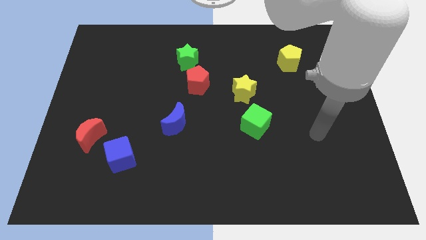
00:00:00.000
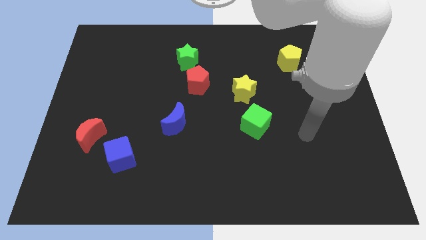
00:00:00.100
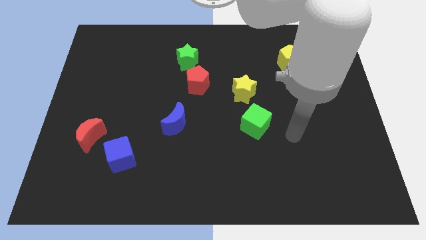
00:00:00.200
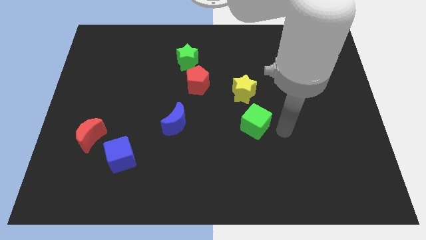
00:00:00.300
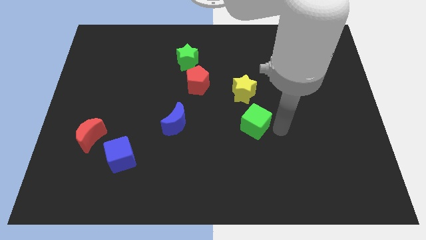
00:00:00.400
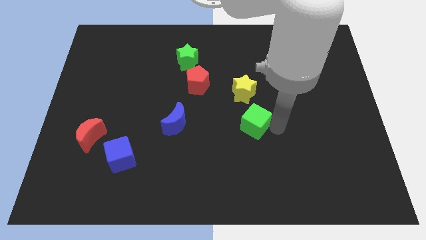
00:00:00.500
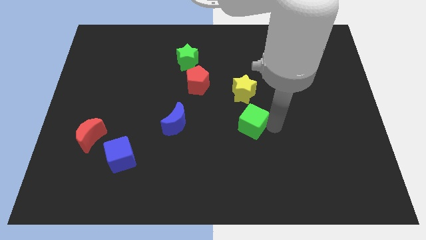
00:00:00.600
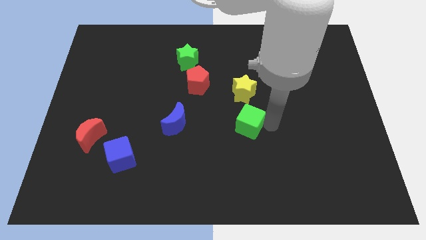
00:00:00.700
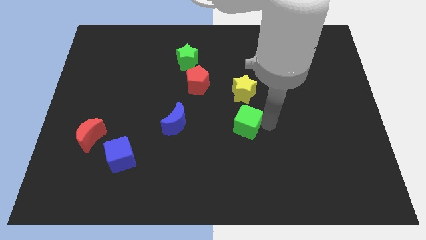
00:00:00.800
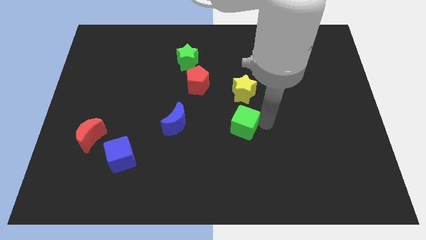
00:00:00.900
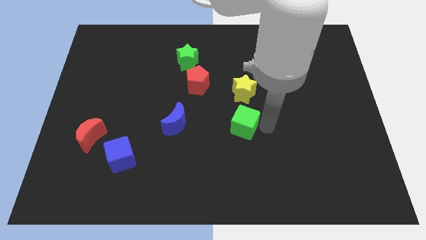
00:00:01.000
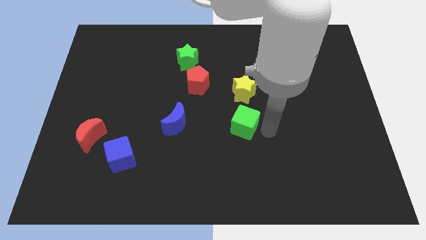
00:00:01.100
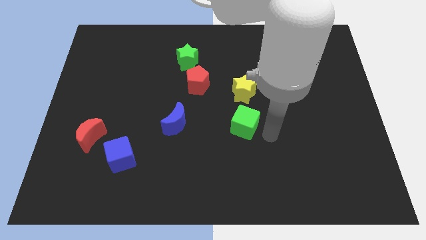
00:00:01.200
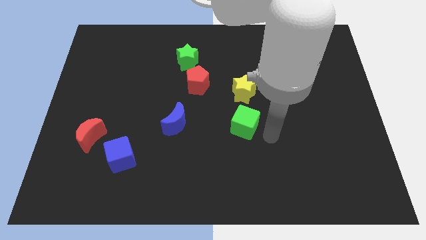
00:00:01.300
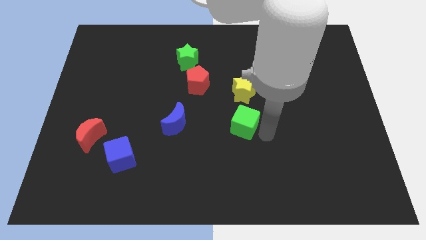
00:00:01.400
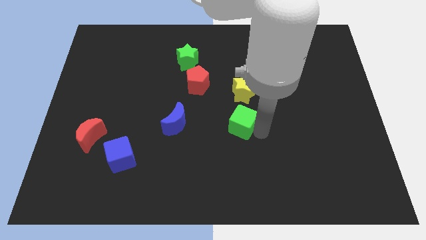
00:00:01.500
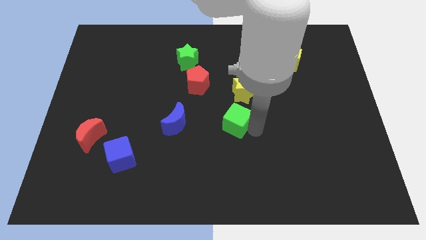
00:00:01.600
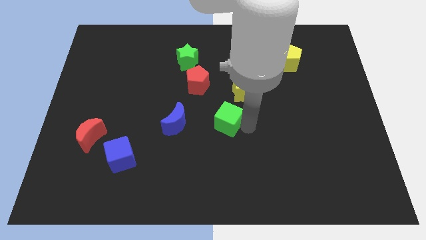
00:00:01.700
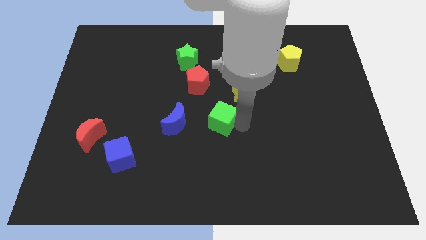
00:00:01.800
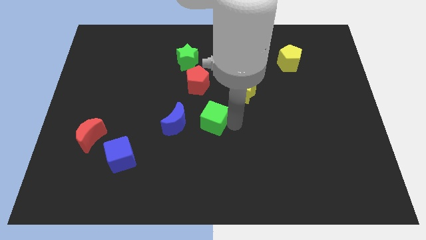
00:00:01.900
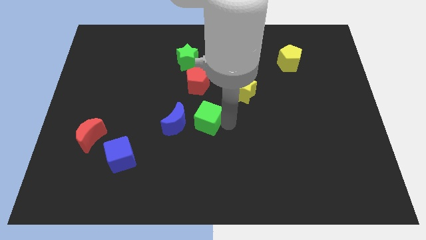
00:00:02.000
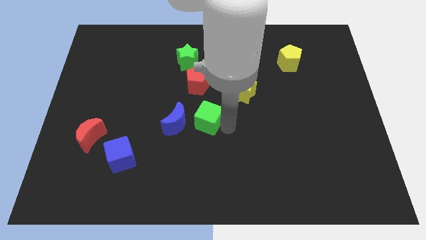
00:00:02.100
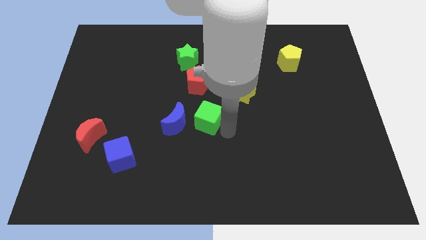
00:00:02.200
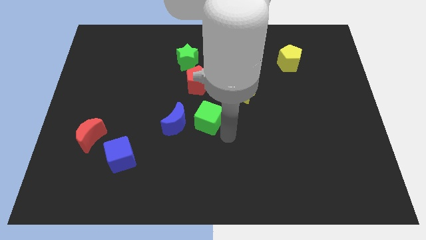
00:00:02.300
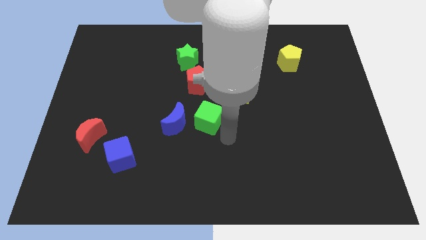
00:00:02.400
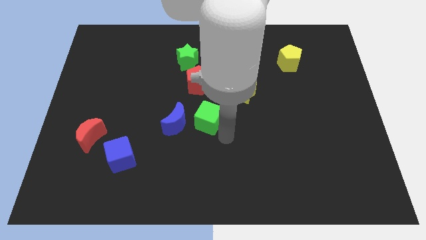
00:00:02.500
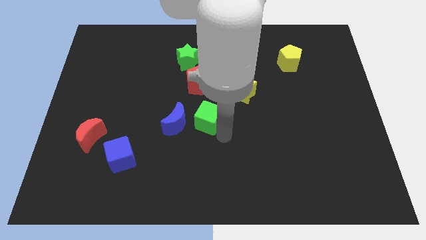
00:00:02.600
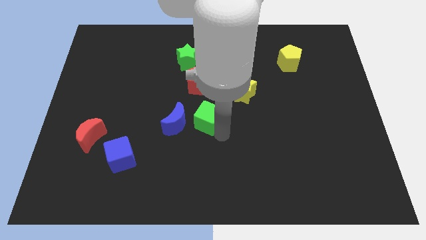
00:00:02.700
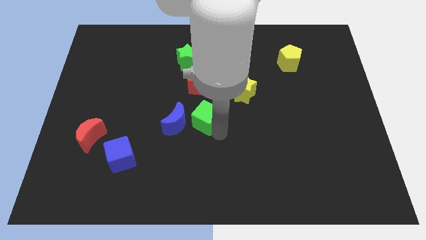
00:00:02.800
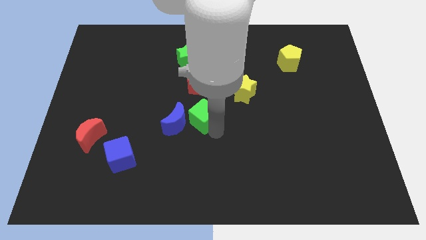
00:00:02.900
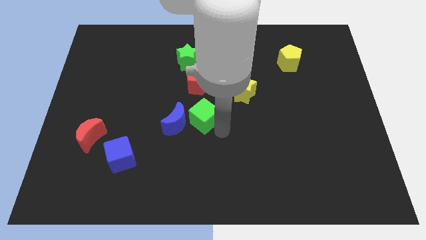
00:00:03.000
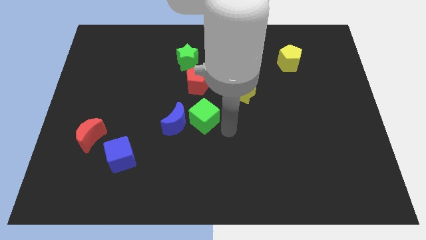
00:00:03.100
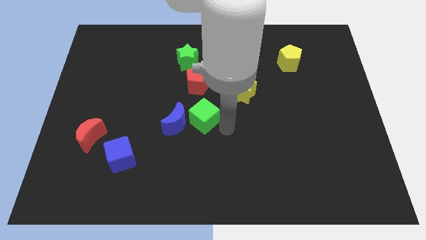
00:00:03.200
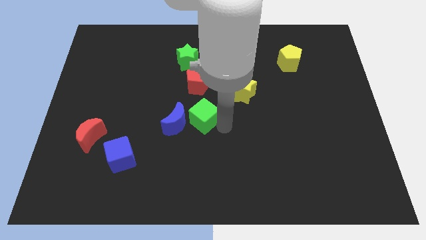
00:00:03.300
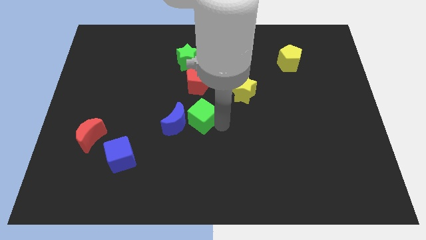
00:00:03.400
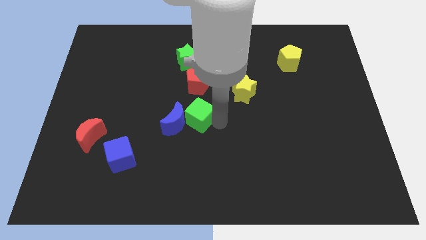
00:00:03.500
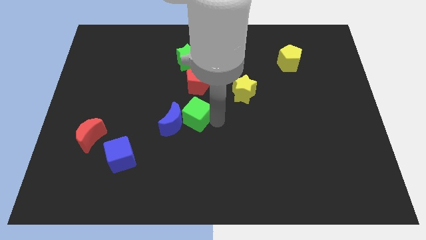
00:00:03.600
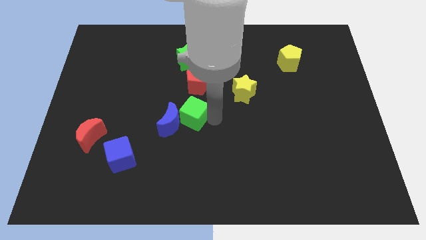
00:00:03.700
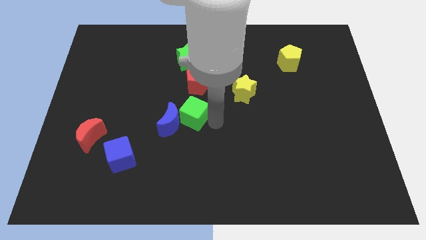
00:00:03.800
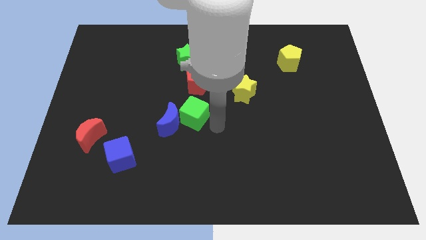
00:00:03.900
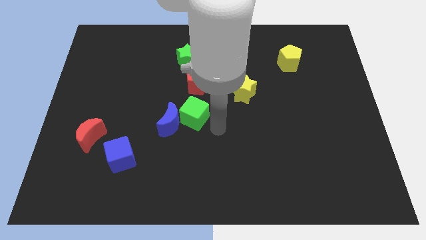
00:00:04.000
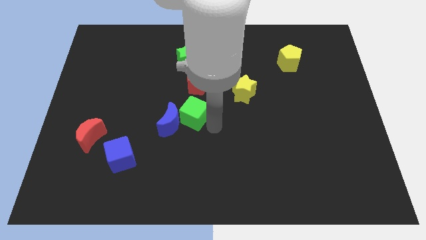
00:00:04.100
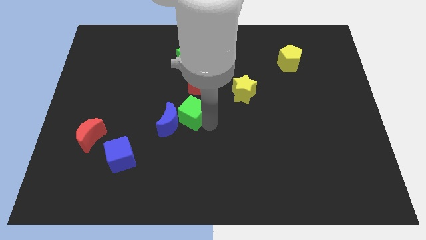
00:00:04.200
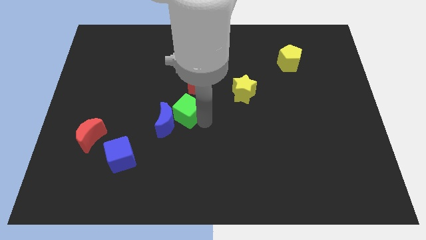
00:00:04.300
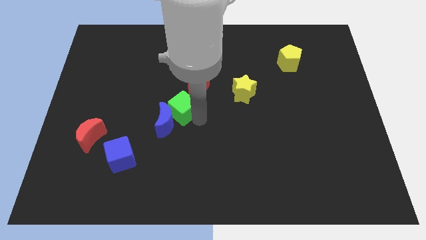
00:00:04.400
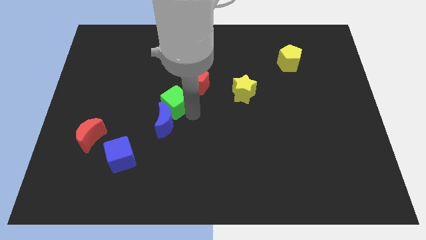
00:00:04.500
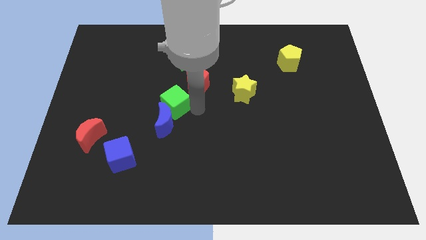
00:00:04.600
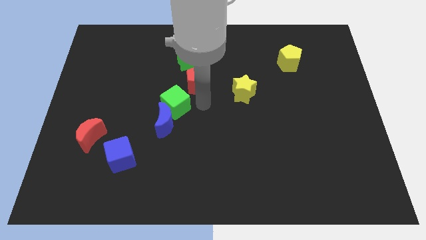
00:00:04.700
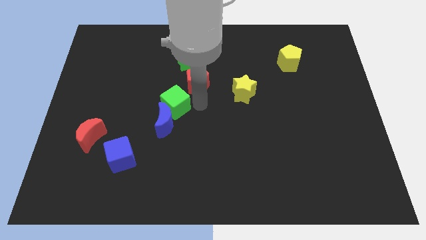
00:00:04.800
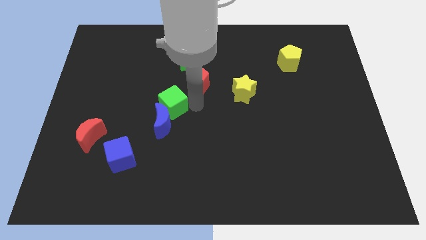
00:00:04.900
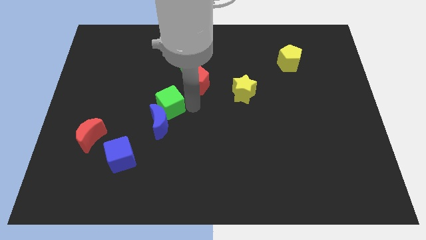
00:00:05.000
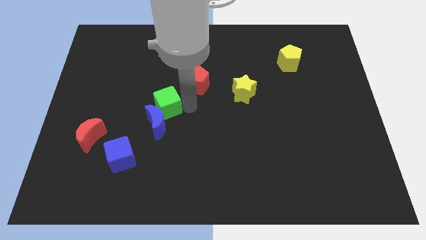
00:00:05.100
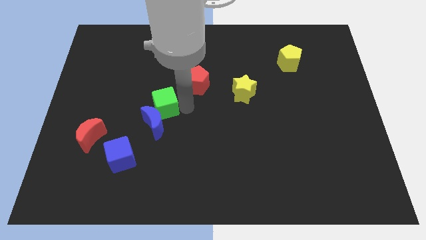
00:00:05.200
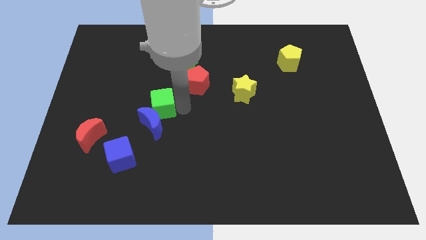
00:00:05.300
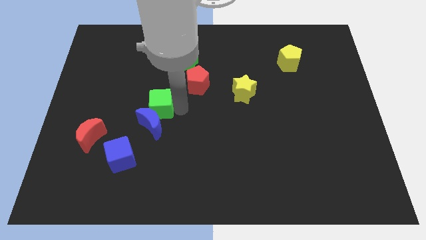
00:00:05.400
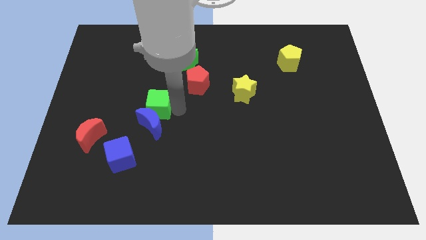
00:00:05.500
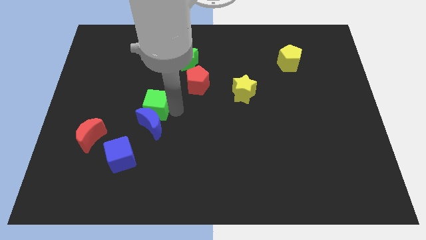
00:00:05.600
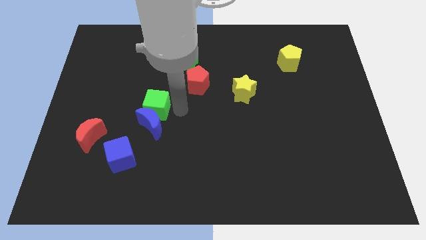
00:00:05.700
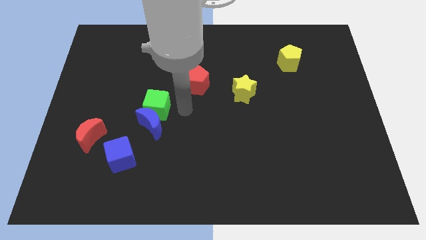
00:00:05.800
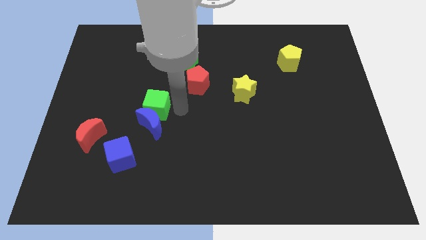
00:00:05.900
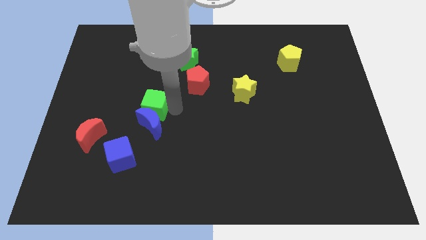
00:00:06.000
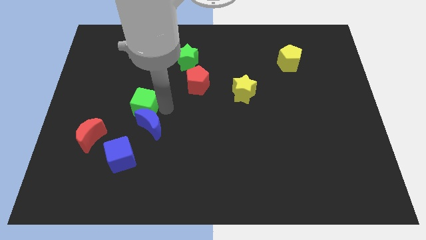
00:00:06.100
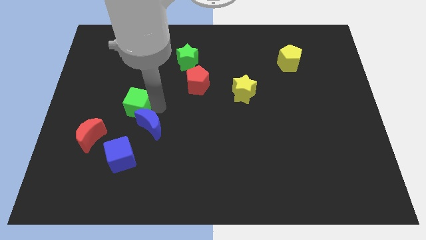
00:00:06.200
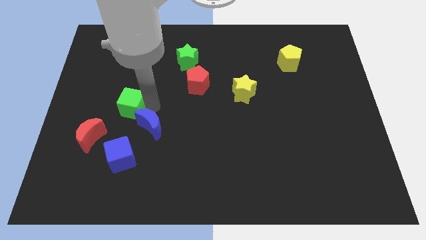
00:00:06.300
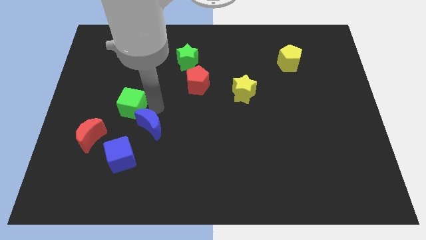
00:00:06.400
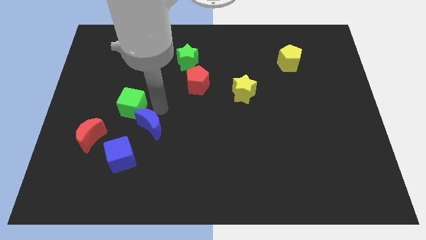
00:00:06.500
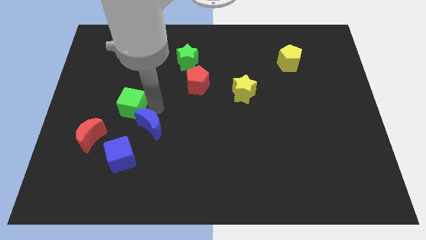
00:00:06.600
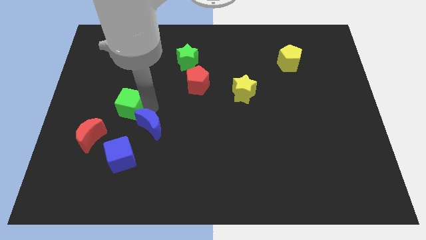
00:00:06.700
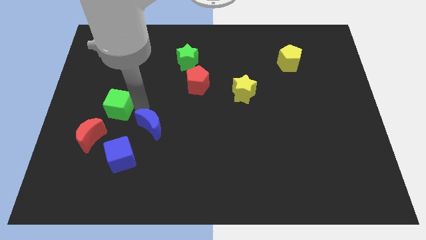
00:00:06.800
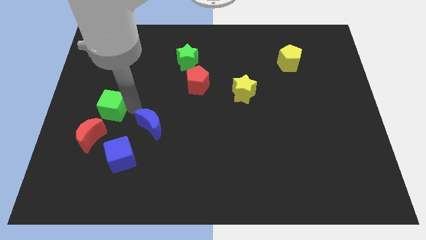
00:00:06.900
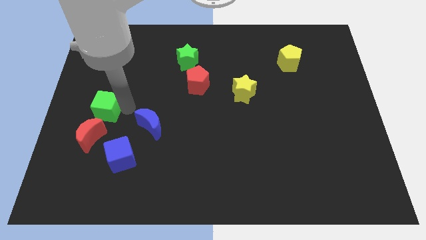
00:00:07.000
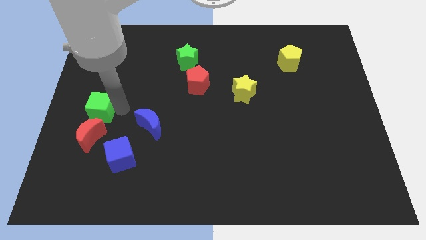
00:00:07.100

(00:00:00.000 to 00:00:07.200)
slide the green cube to the left side
